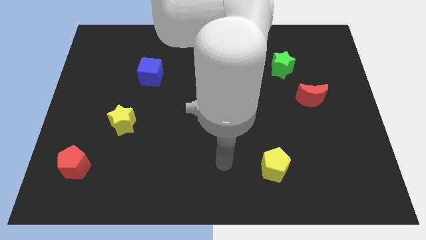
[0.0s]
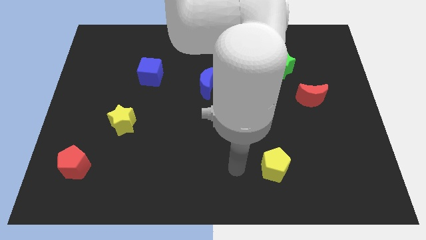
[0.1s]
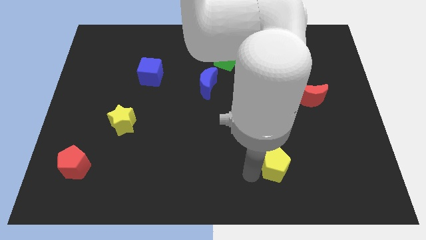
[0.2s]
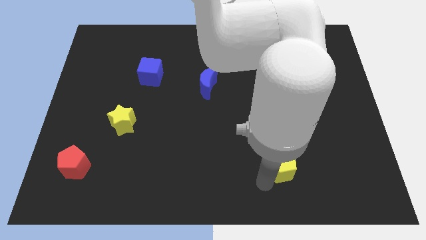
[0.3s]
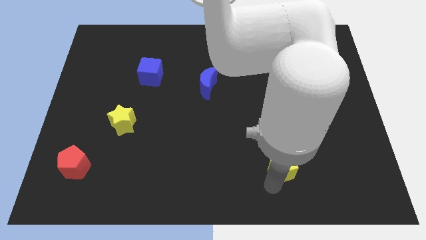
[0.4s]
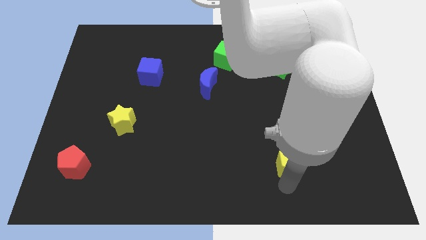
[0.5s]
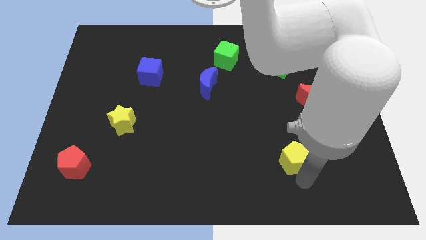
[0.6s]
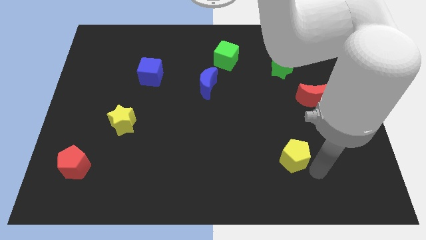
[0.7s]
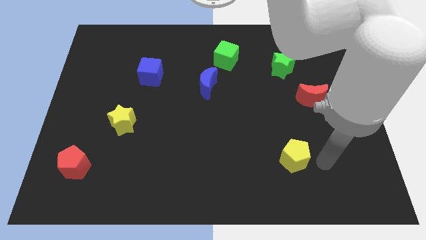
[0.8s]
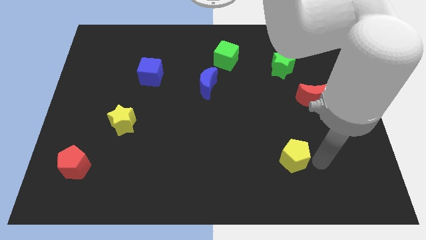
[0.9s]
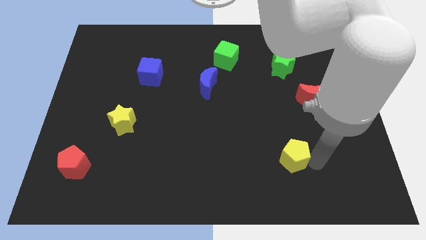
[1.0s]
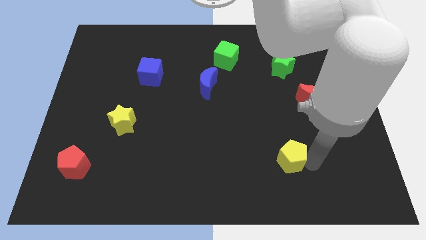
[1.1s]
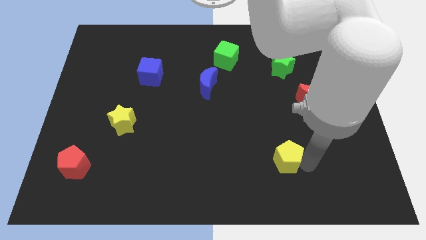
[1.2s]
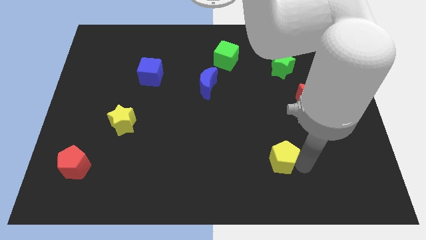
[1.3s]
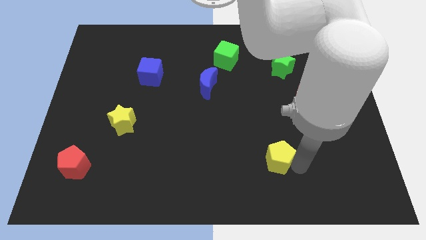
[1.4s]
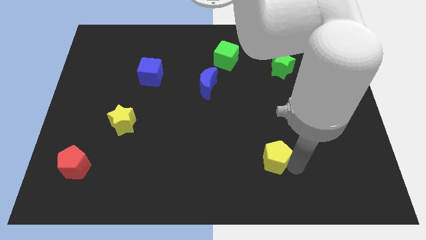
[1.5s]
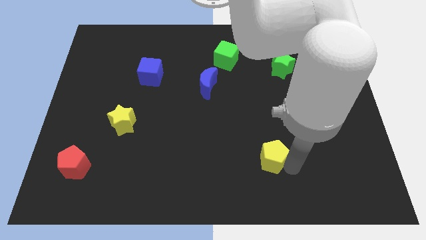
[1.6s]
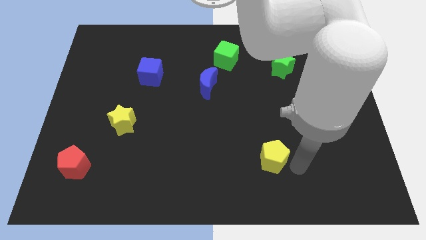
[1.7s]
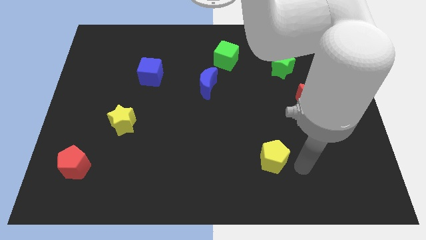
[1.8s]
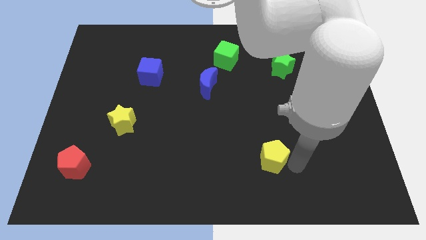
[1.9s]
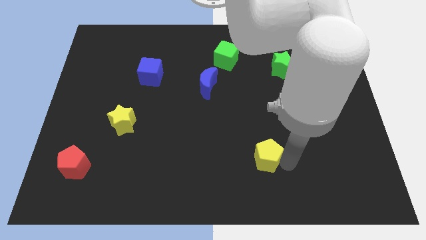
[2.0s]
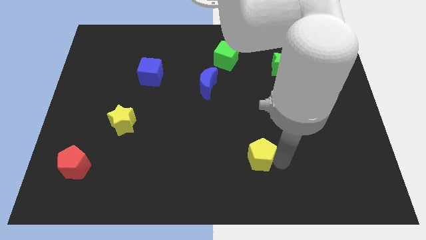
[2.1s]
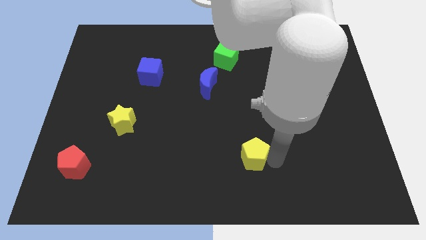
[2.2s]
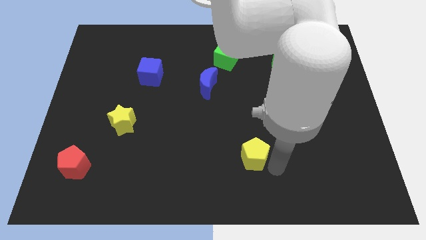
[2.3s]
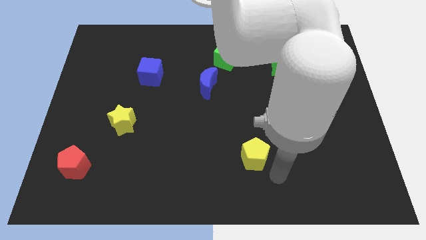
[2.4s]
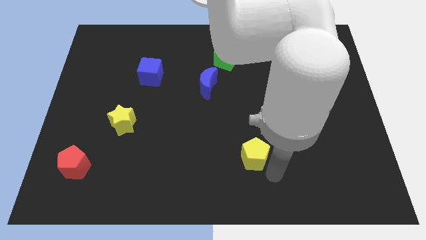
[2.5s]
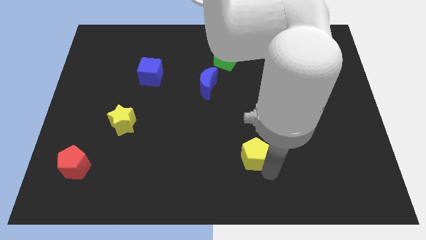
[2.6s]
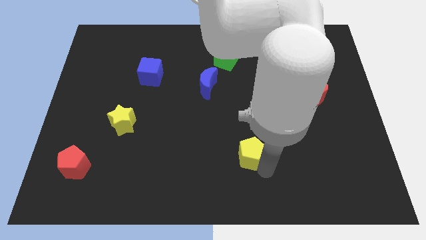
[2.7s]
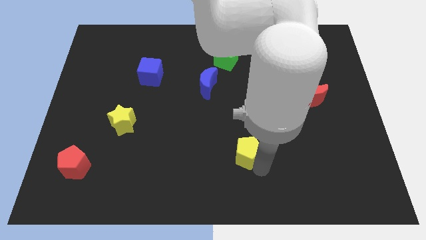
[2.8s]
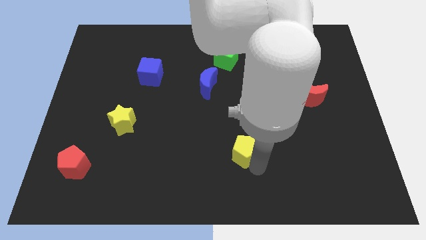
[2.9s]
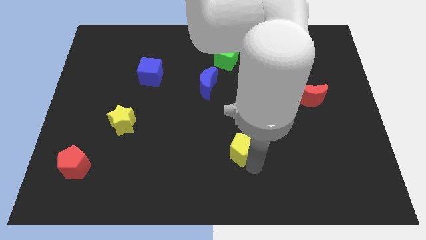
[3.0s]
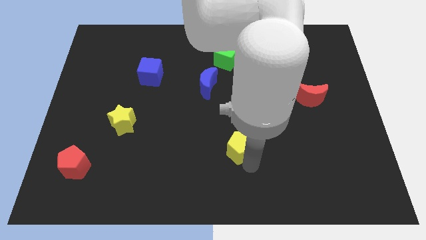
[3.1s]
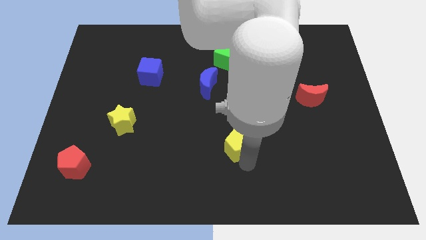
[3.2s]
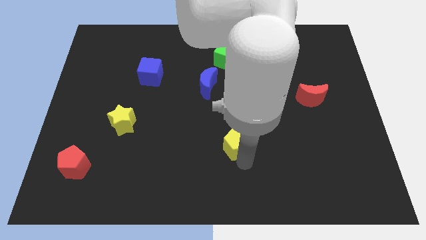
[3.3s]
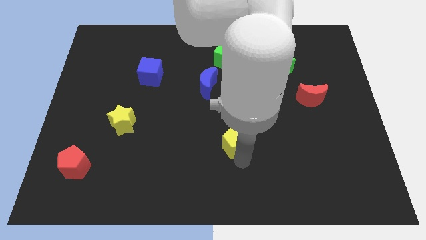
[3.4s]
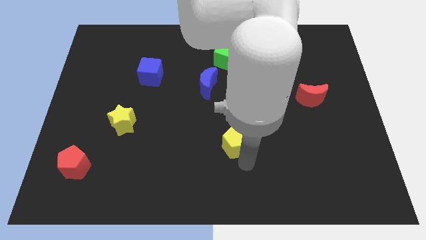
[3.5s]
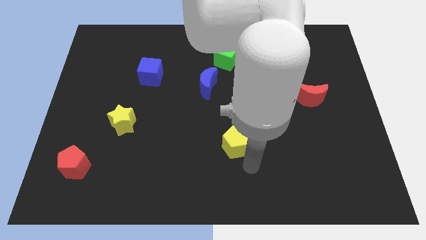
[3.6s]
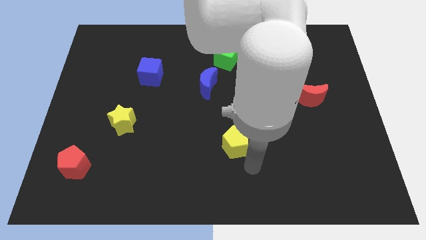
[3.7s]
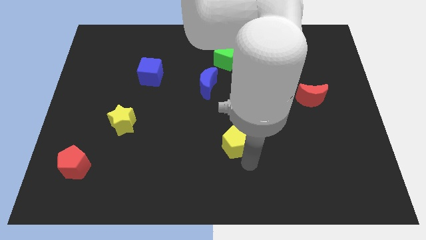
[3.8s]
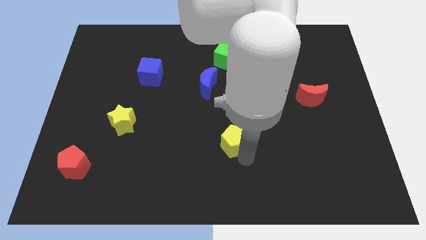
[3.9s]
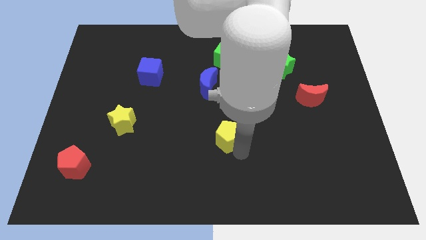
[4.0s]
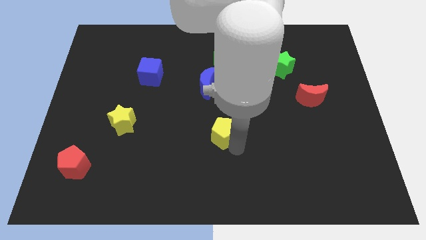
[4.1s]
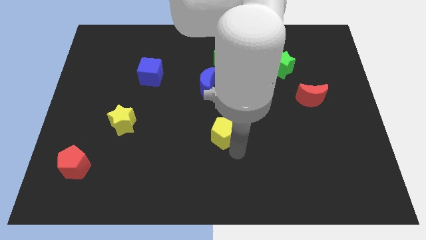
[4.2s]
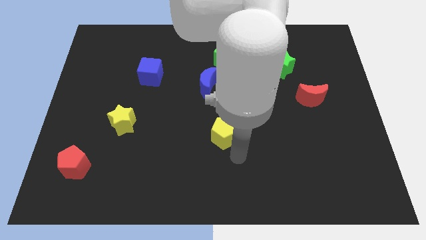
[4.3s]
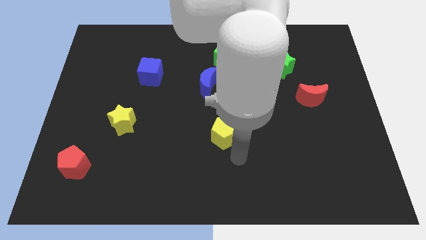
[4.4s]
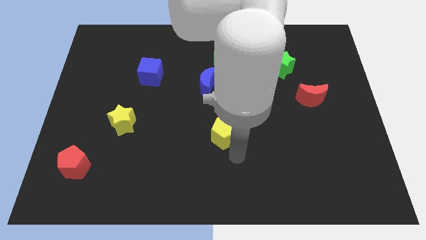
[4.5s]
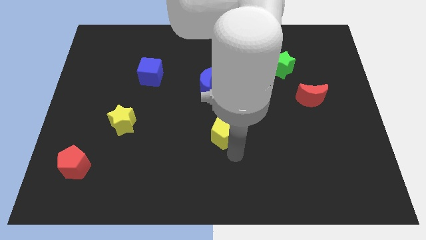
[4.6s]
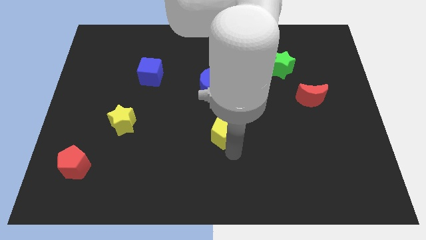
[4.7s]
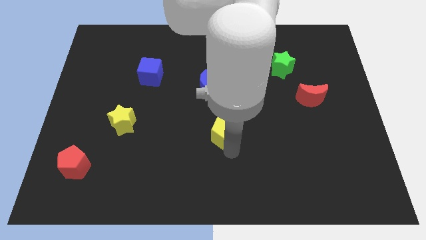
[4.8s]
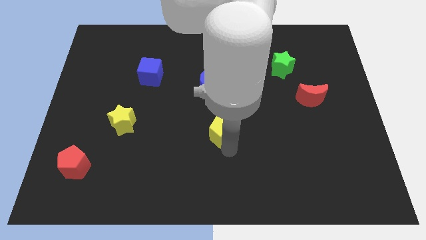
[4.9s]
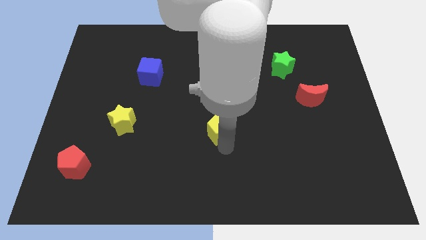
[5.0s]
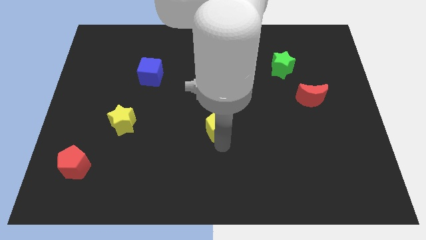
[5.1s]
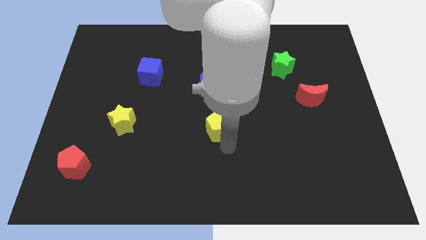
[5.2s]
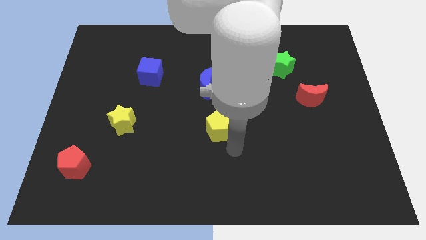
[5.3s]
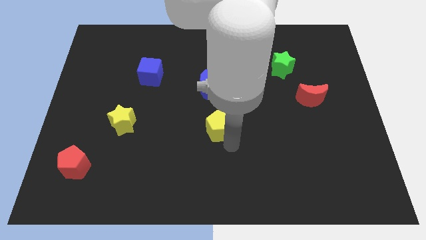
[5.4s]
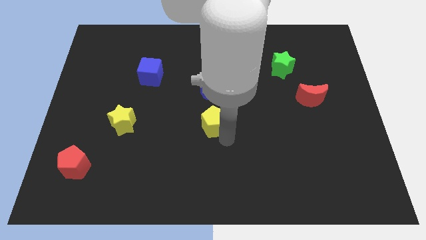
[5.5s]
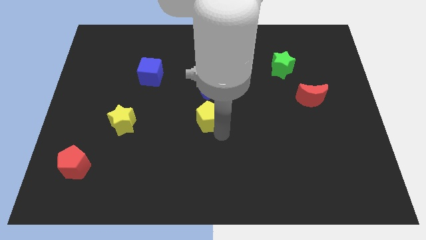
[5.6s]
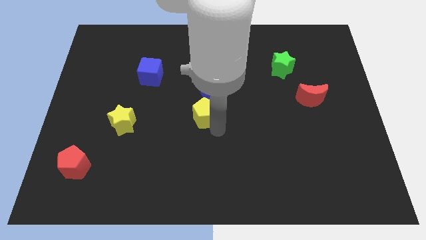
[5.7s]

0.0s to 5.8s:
slide the yellow pentagon up and to the left

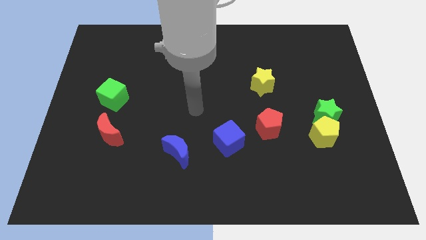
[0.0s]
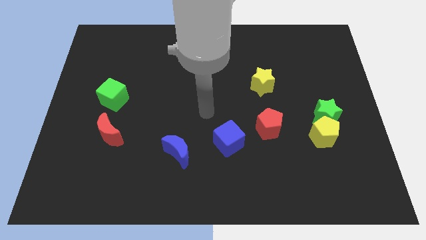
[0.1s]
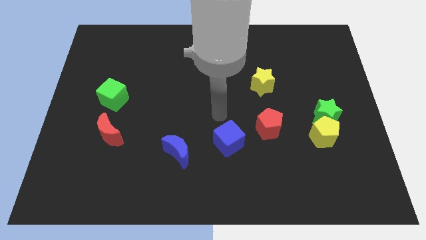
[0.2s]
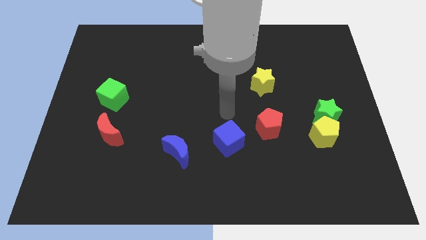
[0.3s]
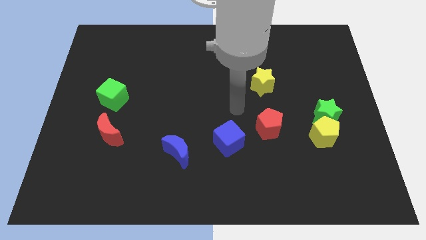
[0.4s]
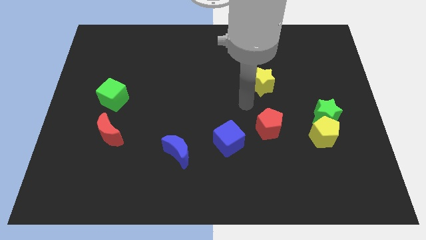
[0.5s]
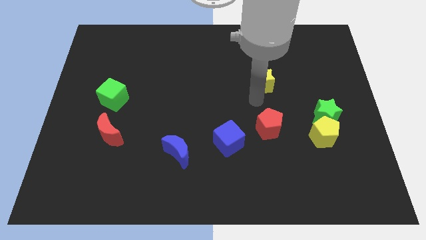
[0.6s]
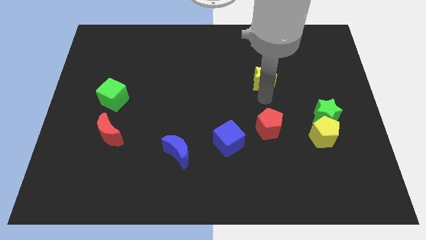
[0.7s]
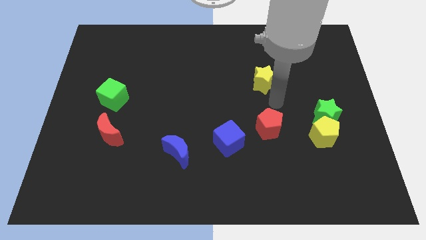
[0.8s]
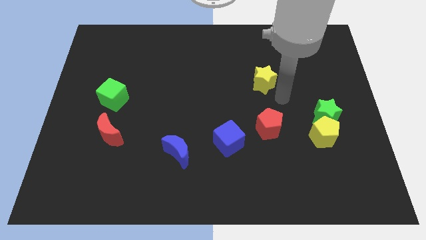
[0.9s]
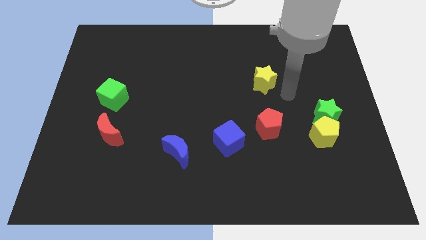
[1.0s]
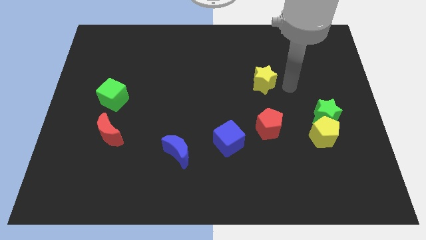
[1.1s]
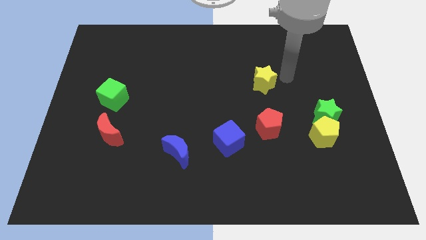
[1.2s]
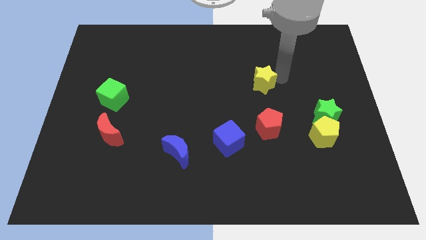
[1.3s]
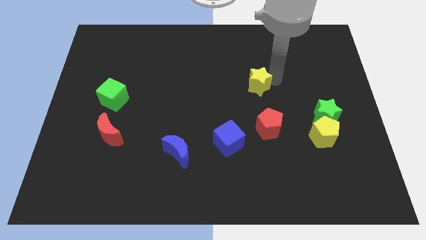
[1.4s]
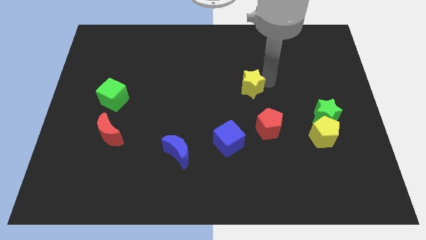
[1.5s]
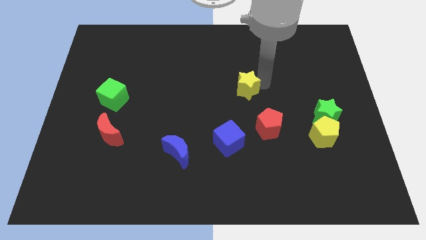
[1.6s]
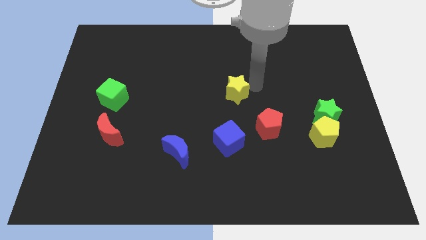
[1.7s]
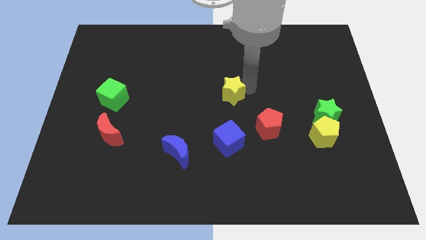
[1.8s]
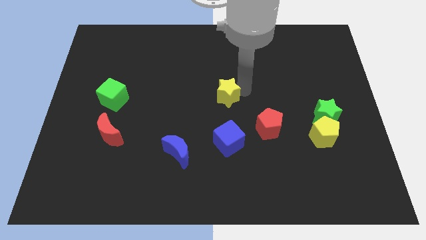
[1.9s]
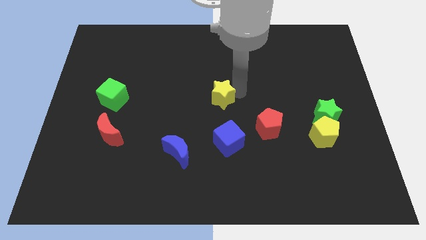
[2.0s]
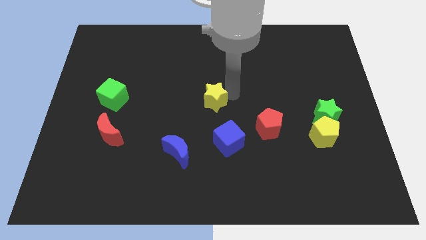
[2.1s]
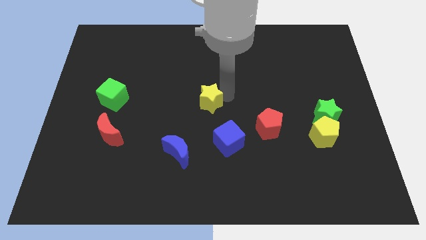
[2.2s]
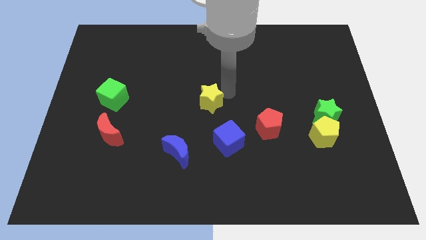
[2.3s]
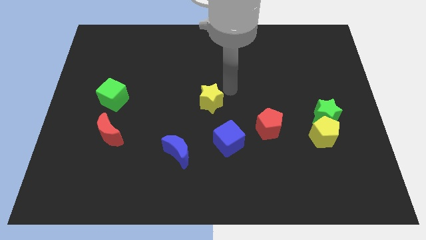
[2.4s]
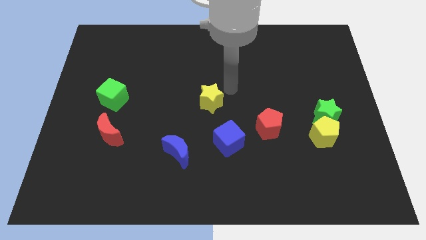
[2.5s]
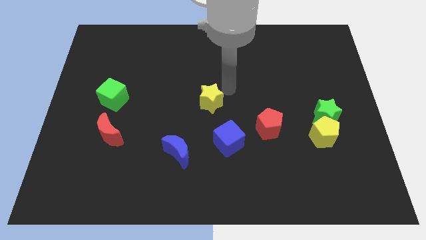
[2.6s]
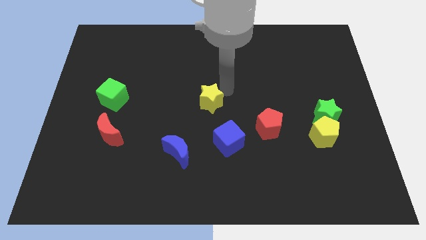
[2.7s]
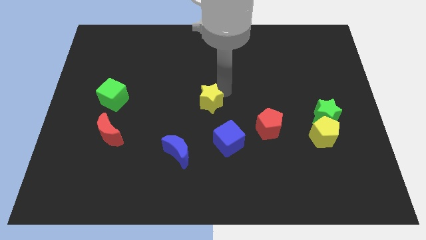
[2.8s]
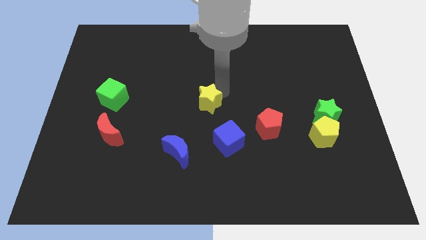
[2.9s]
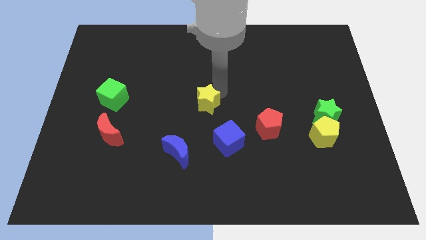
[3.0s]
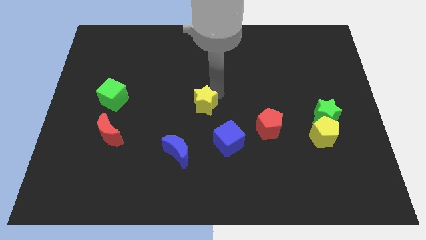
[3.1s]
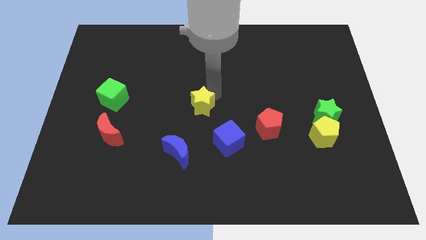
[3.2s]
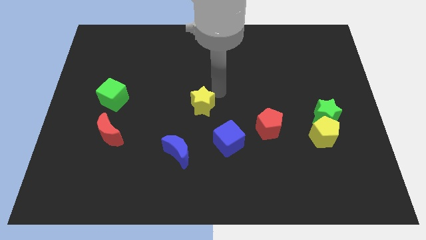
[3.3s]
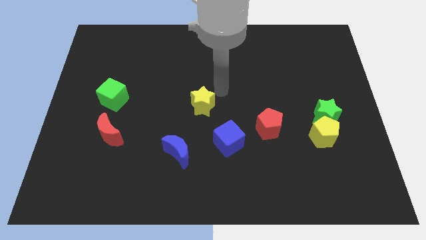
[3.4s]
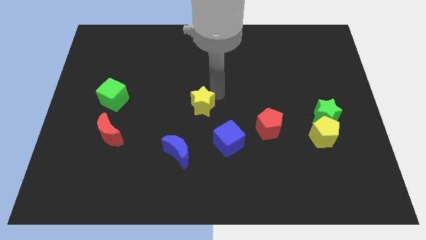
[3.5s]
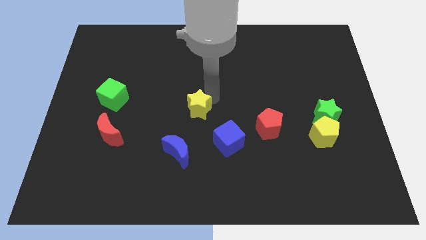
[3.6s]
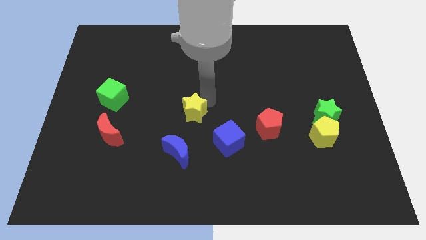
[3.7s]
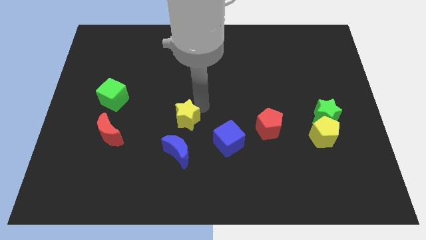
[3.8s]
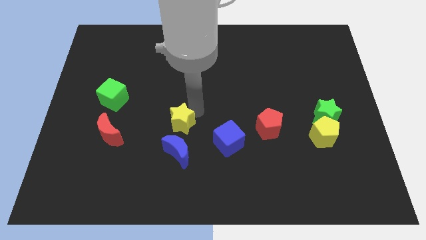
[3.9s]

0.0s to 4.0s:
slide the yellow star downwards and to the left
